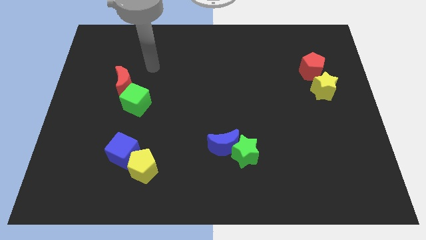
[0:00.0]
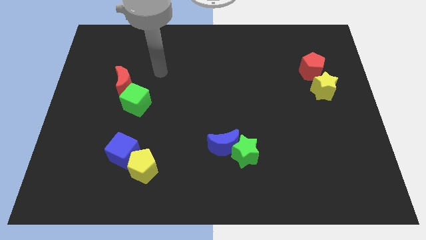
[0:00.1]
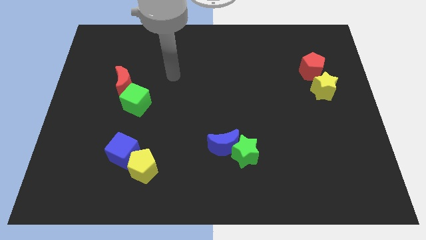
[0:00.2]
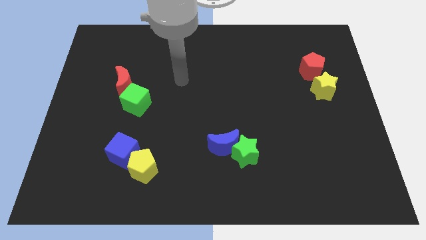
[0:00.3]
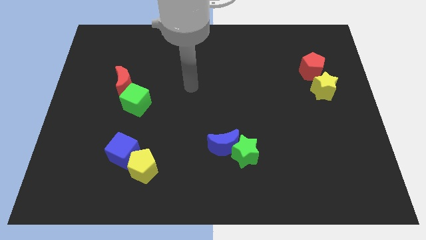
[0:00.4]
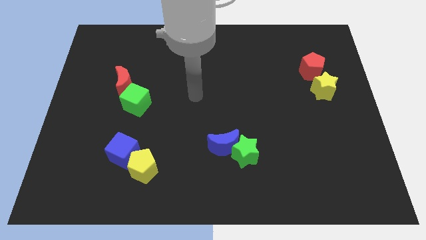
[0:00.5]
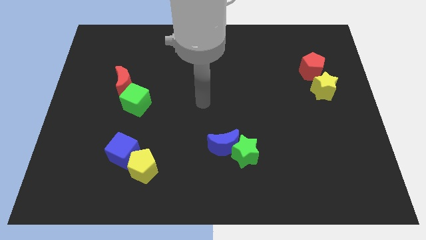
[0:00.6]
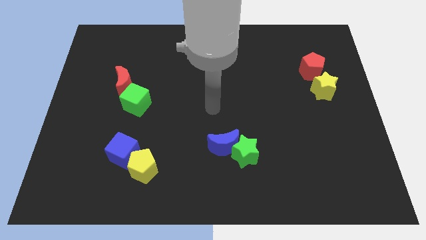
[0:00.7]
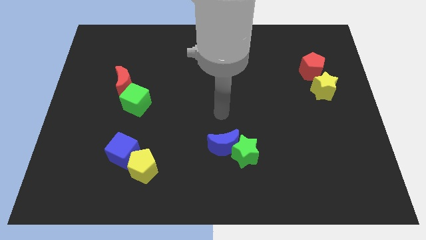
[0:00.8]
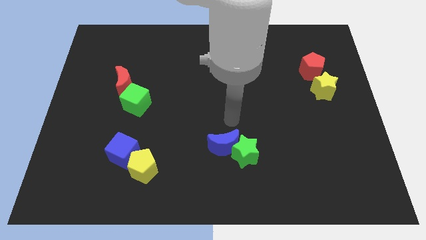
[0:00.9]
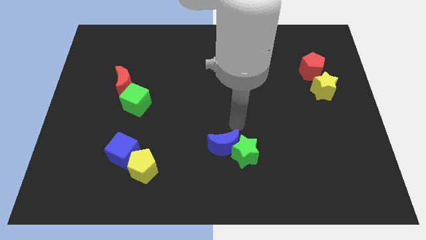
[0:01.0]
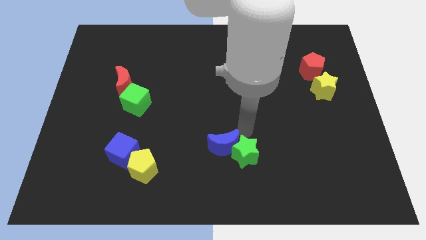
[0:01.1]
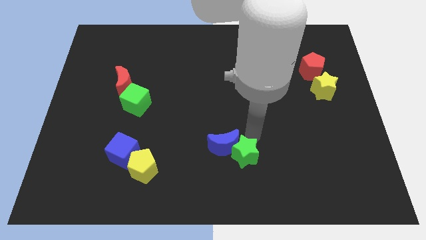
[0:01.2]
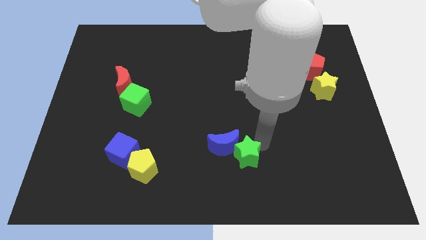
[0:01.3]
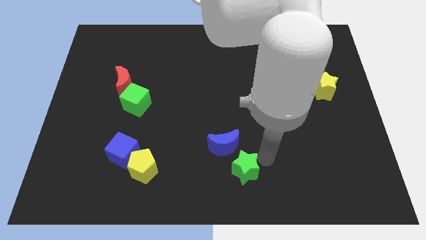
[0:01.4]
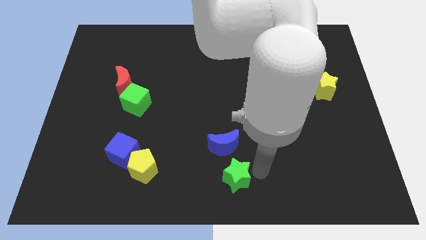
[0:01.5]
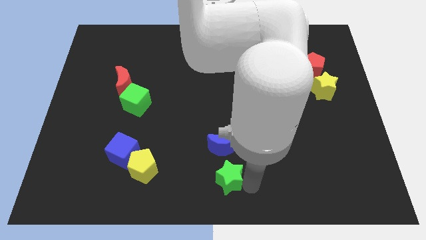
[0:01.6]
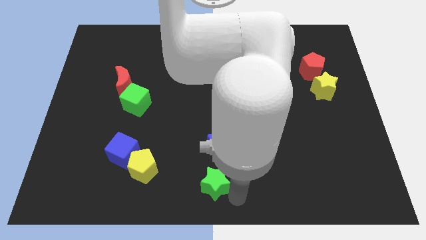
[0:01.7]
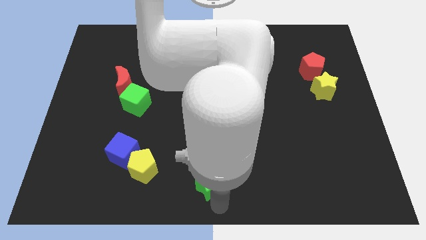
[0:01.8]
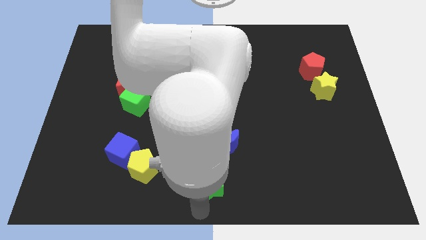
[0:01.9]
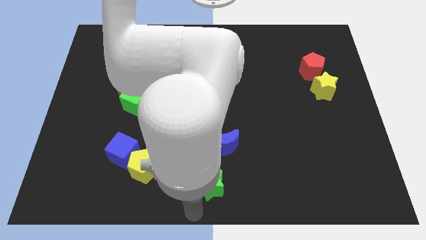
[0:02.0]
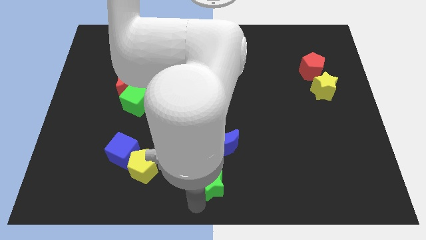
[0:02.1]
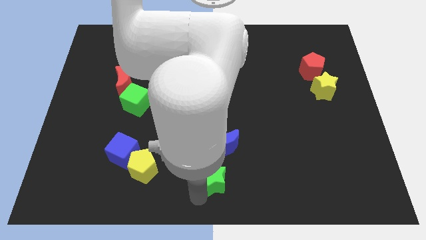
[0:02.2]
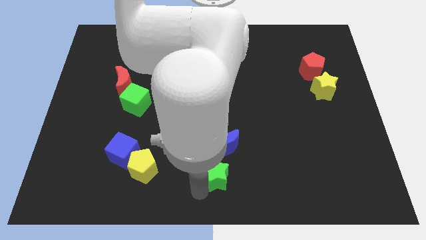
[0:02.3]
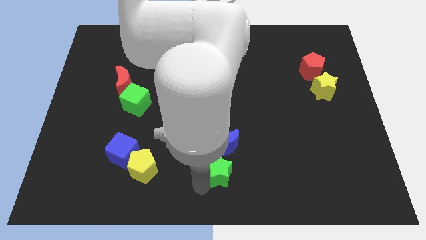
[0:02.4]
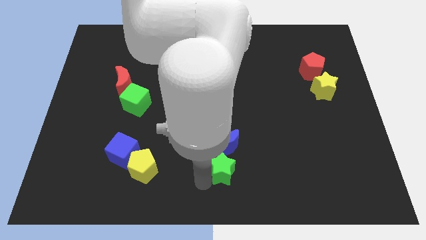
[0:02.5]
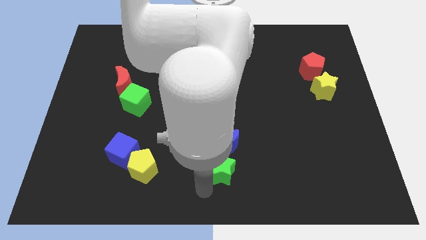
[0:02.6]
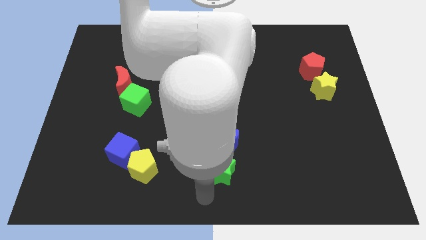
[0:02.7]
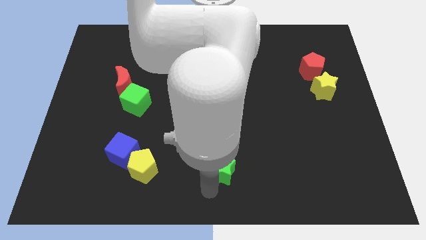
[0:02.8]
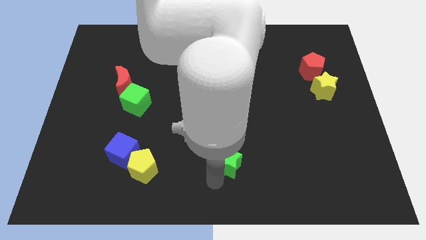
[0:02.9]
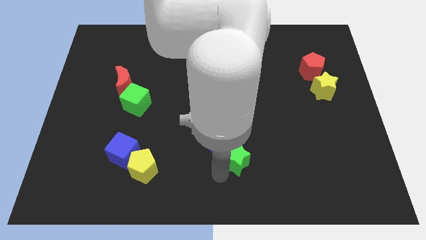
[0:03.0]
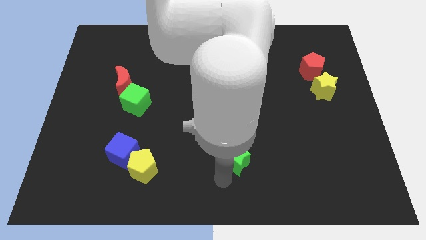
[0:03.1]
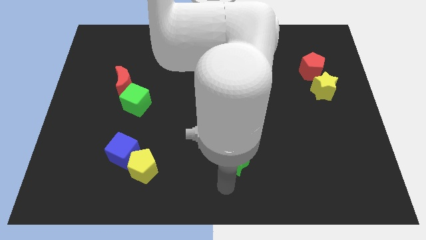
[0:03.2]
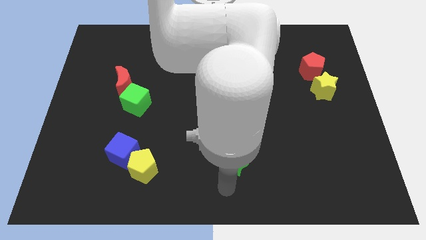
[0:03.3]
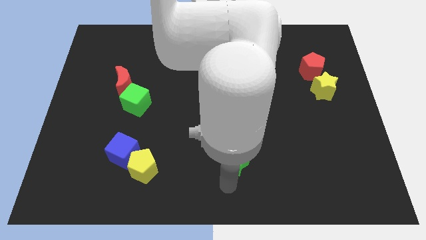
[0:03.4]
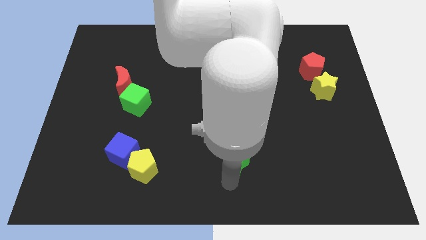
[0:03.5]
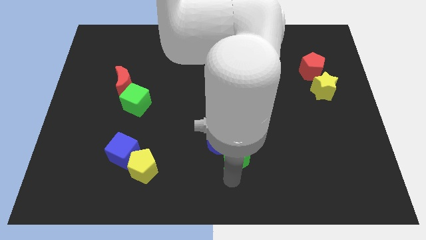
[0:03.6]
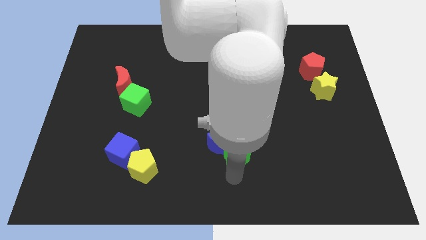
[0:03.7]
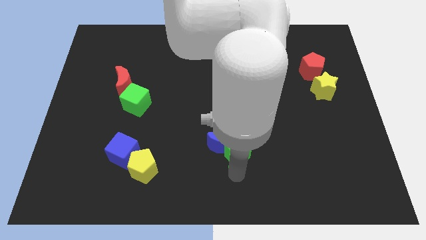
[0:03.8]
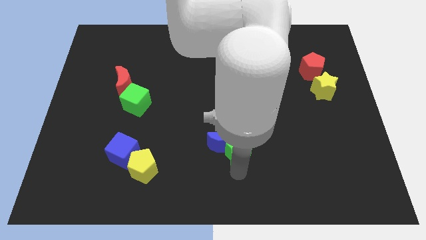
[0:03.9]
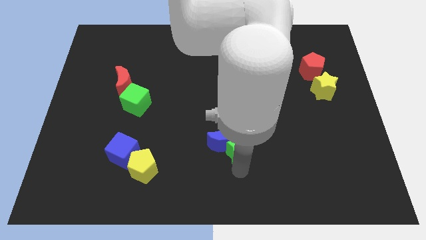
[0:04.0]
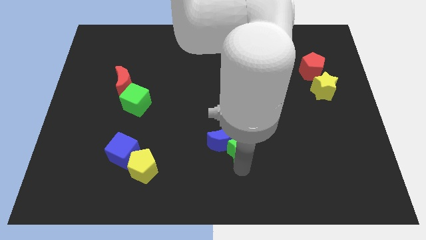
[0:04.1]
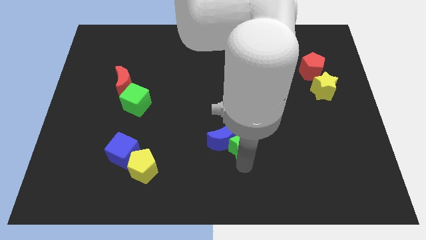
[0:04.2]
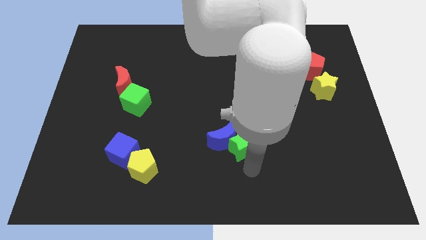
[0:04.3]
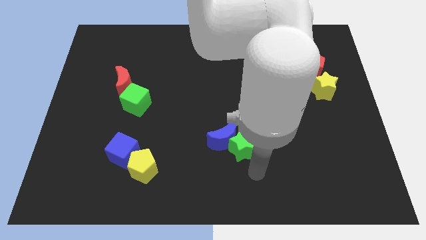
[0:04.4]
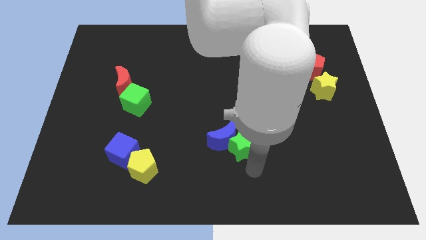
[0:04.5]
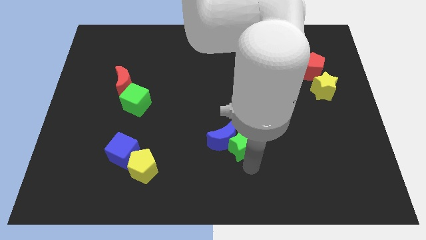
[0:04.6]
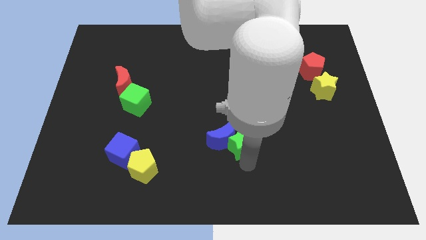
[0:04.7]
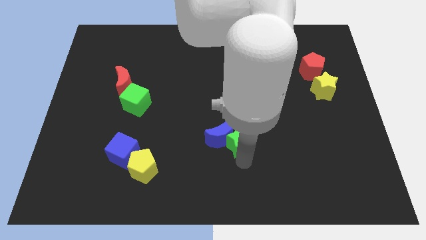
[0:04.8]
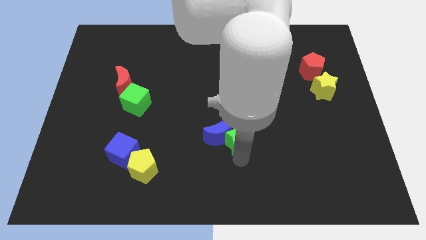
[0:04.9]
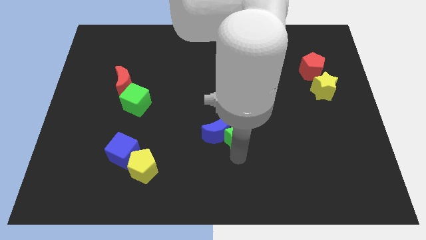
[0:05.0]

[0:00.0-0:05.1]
slide the green star to the middle

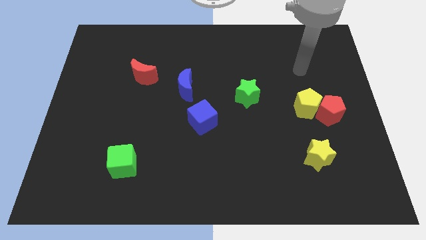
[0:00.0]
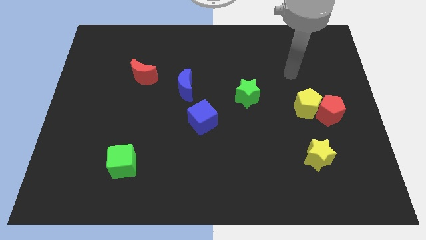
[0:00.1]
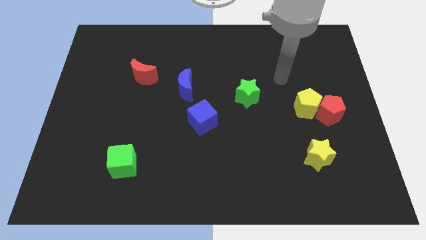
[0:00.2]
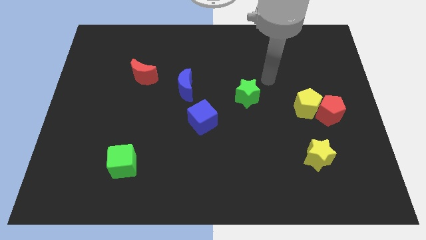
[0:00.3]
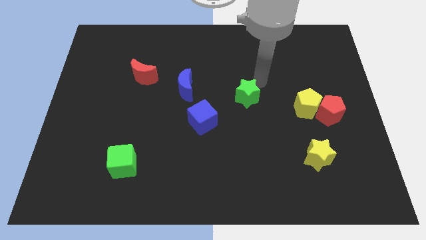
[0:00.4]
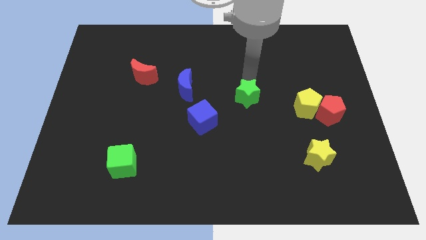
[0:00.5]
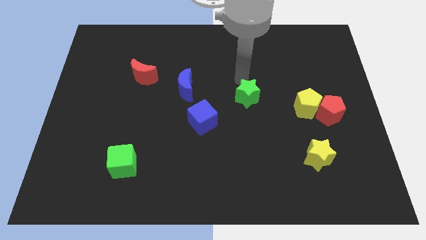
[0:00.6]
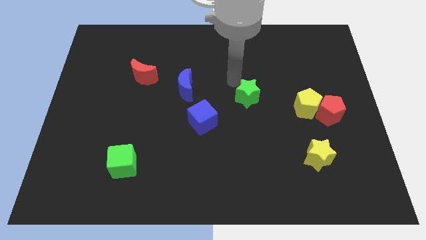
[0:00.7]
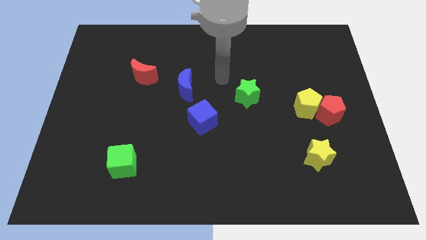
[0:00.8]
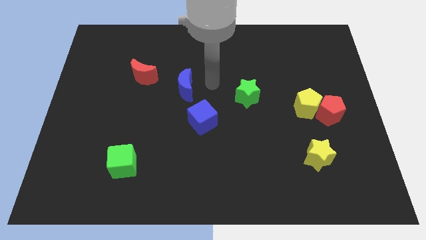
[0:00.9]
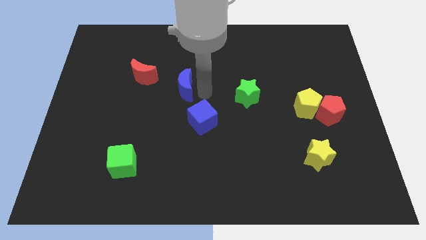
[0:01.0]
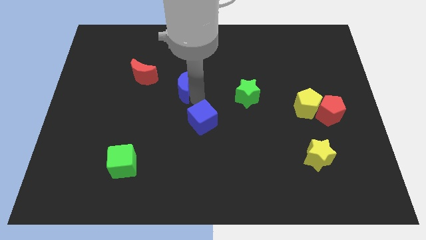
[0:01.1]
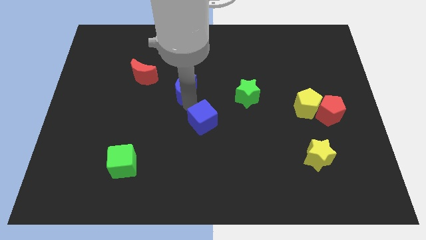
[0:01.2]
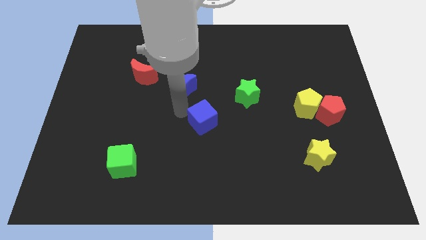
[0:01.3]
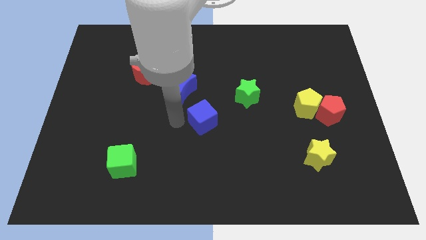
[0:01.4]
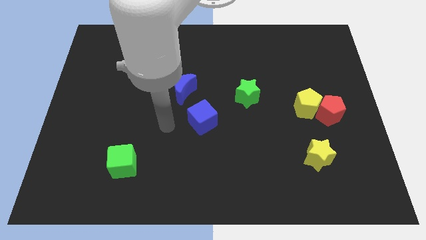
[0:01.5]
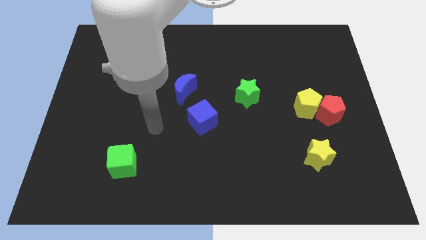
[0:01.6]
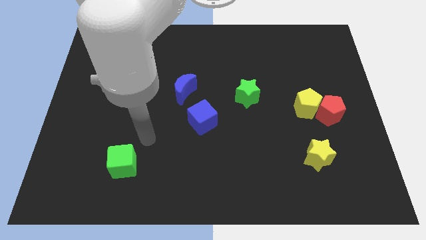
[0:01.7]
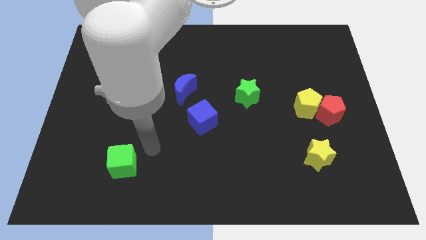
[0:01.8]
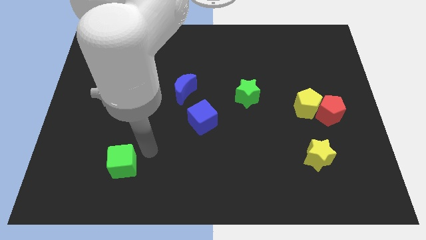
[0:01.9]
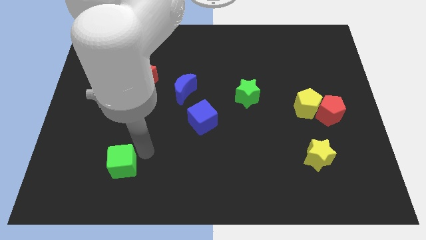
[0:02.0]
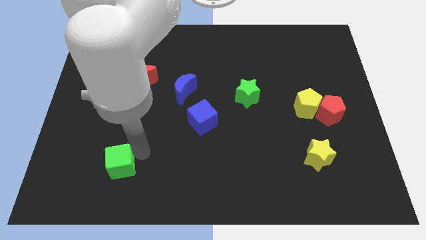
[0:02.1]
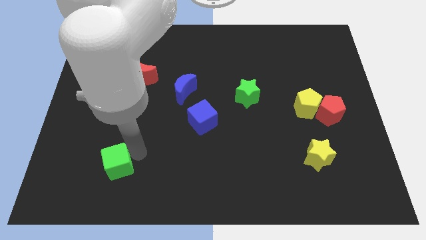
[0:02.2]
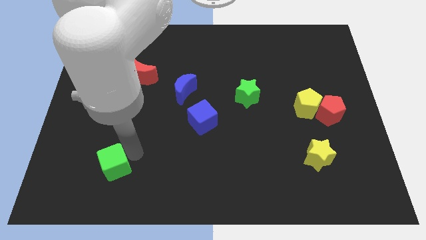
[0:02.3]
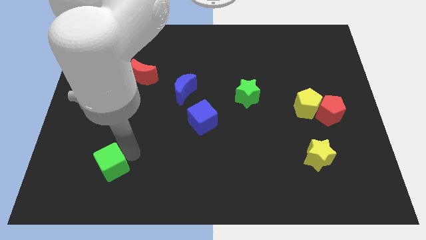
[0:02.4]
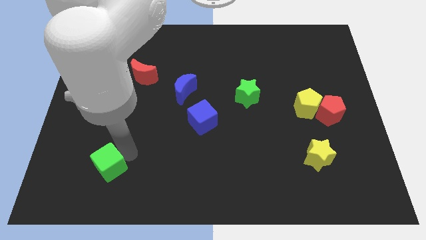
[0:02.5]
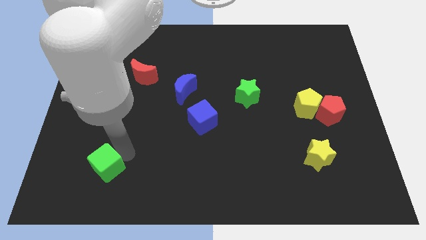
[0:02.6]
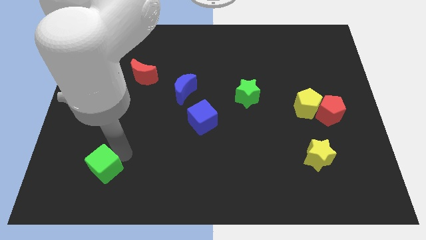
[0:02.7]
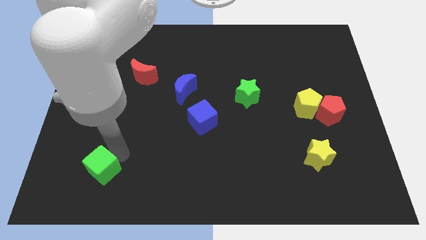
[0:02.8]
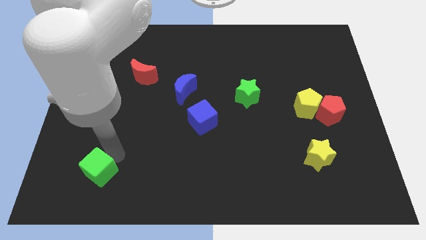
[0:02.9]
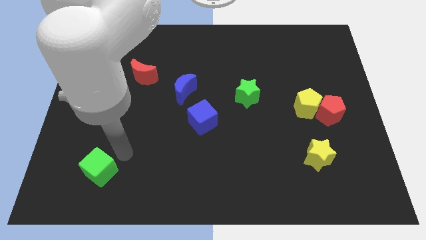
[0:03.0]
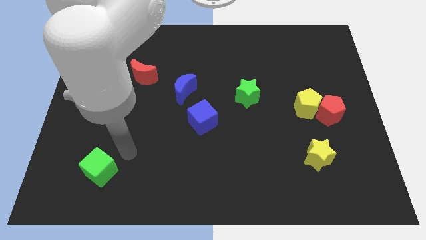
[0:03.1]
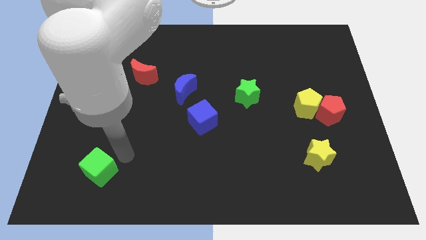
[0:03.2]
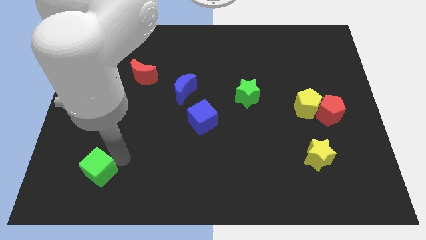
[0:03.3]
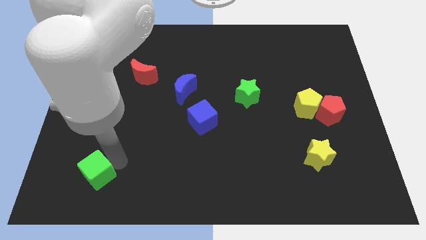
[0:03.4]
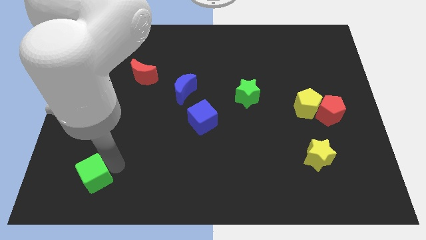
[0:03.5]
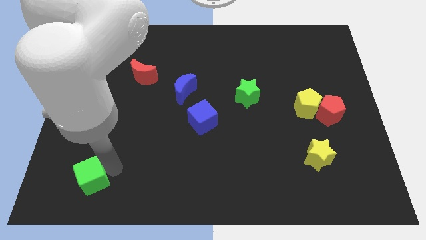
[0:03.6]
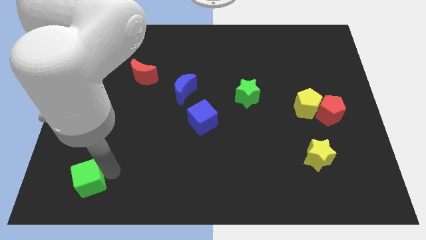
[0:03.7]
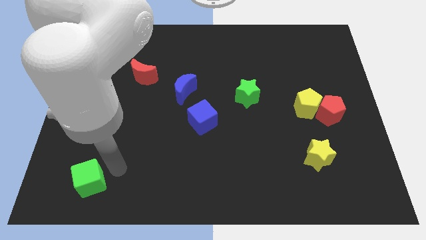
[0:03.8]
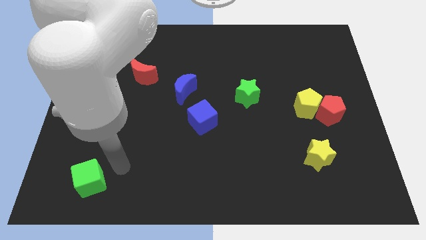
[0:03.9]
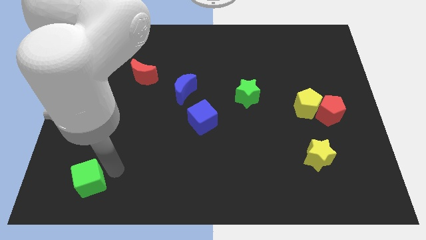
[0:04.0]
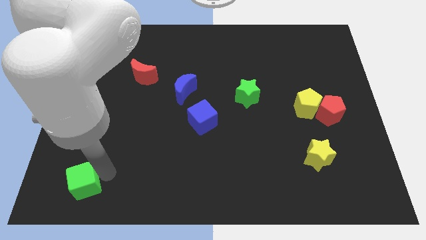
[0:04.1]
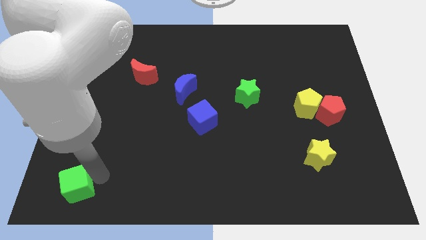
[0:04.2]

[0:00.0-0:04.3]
put the green cube to the bottom left
